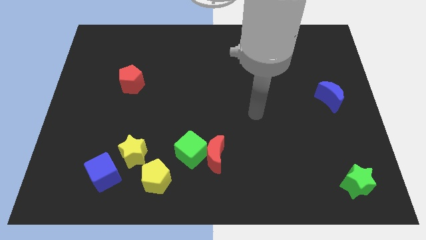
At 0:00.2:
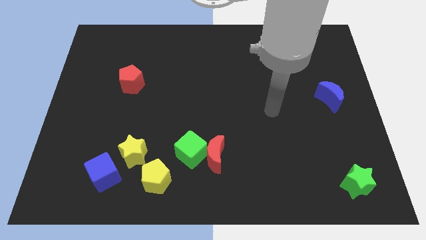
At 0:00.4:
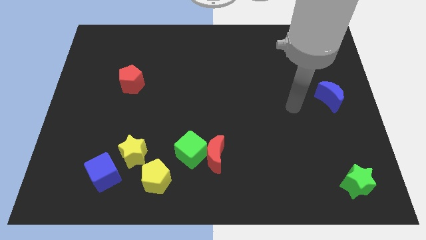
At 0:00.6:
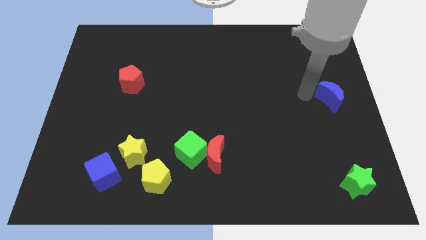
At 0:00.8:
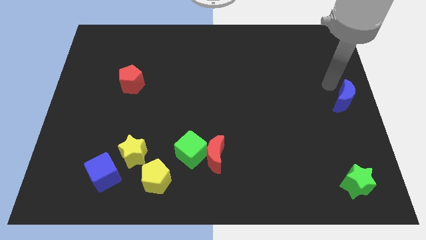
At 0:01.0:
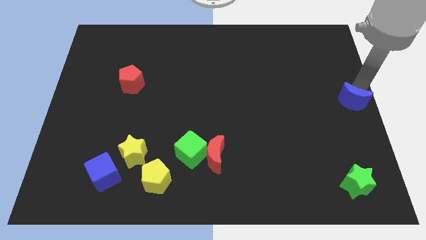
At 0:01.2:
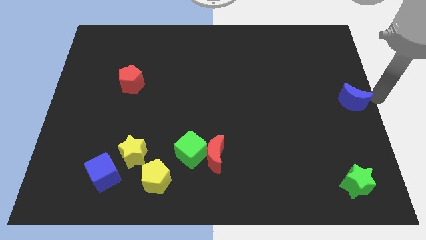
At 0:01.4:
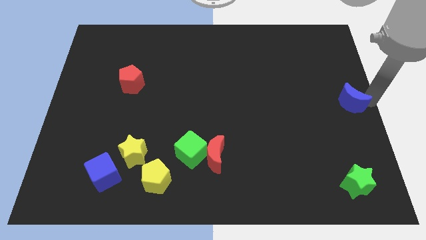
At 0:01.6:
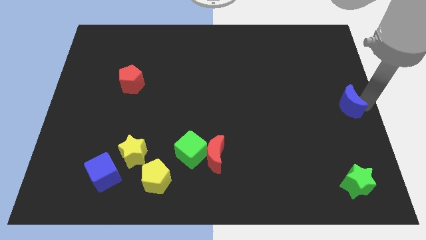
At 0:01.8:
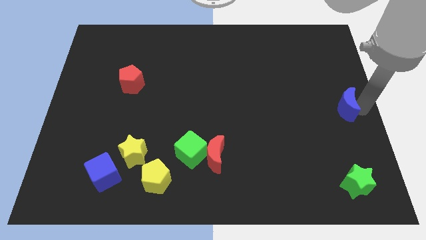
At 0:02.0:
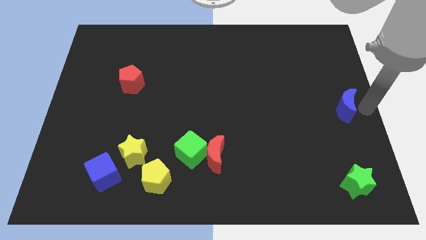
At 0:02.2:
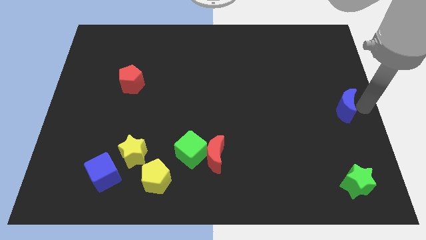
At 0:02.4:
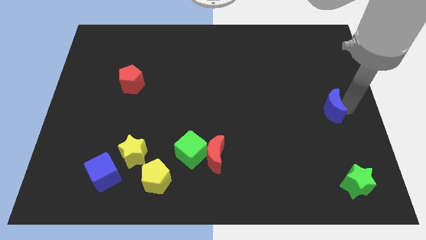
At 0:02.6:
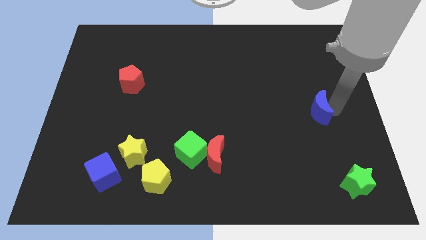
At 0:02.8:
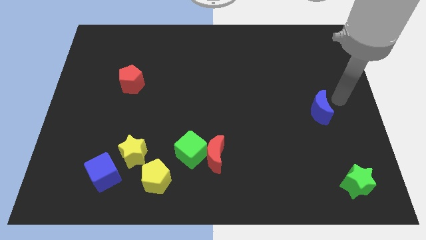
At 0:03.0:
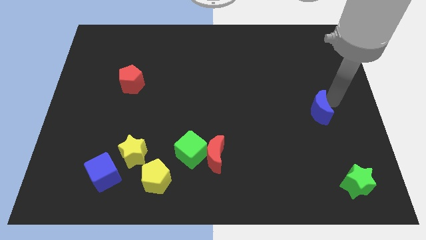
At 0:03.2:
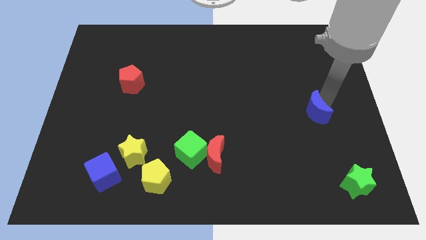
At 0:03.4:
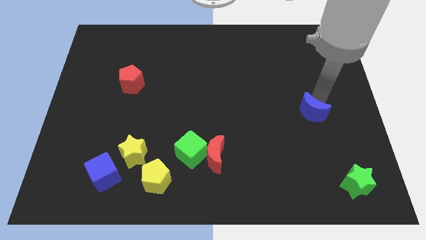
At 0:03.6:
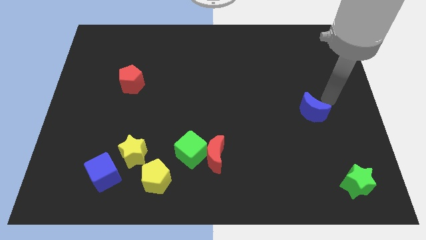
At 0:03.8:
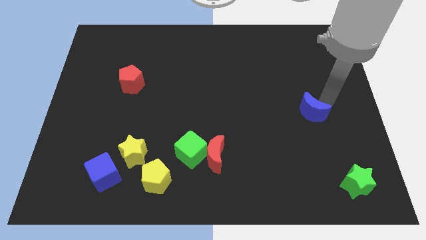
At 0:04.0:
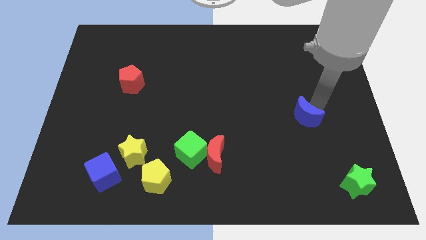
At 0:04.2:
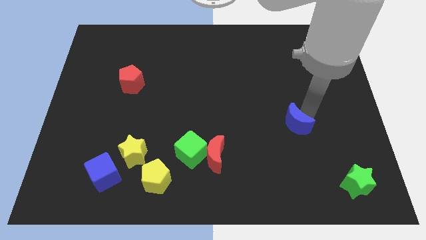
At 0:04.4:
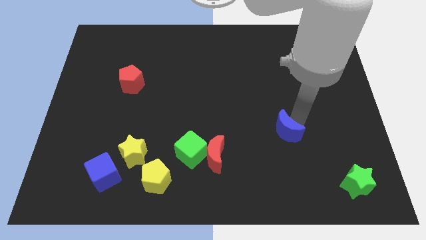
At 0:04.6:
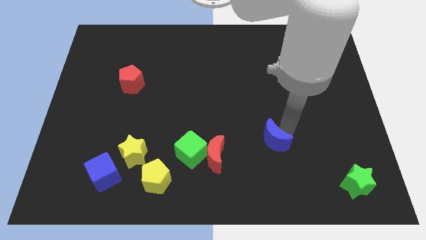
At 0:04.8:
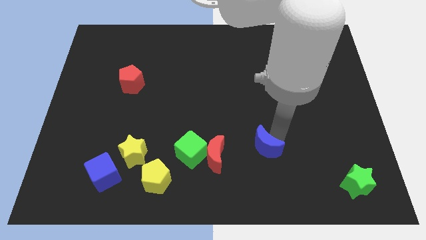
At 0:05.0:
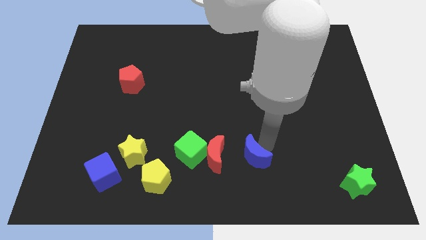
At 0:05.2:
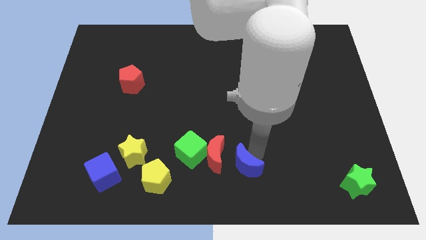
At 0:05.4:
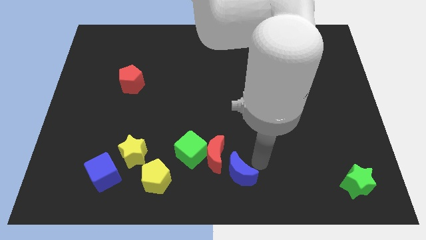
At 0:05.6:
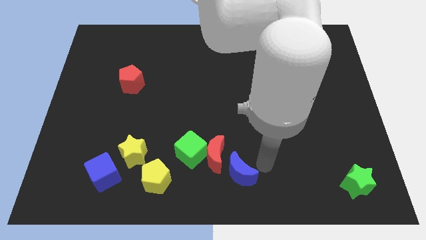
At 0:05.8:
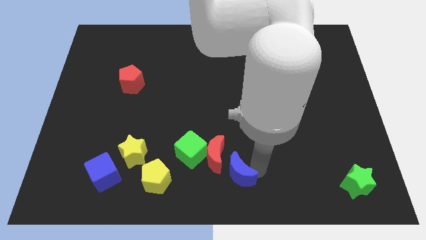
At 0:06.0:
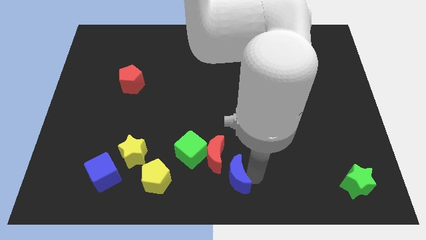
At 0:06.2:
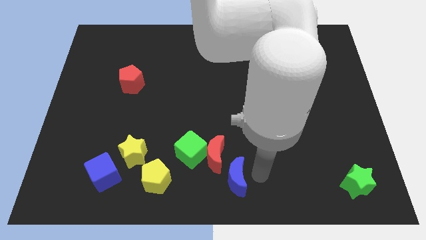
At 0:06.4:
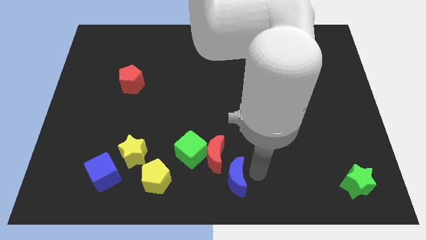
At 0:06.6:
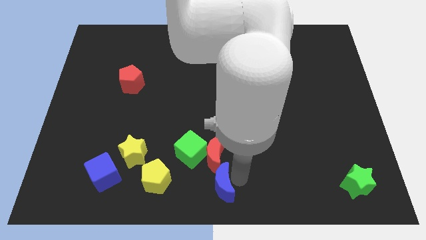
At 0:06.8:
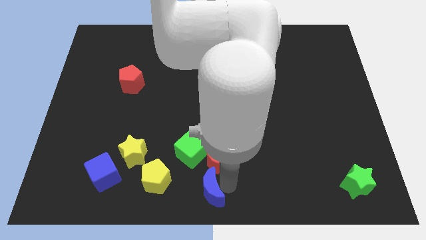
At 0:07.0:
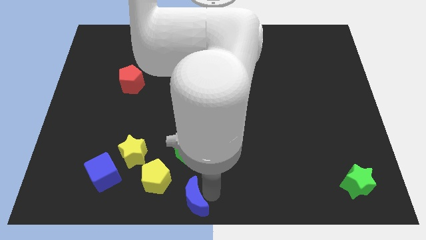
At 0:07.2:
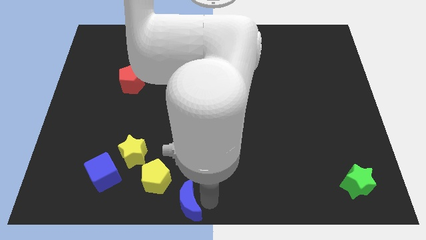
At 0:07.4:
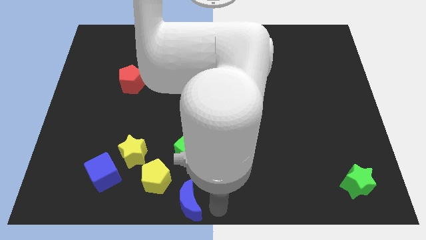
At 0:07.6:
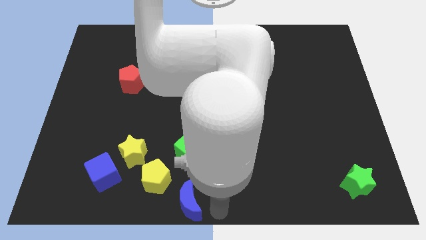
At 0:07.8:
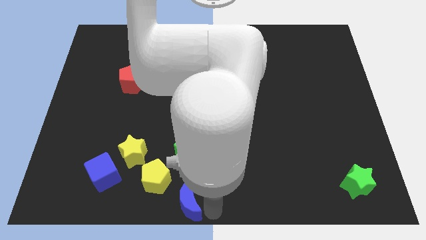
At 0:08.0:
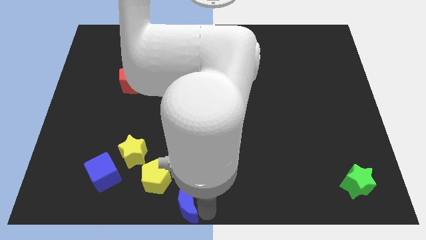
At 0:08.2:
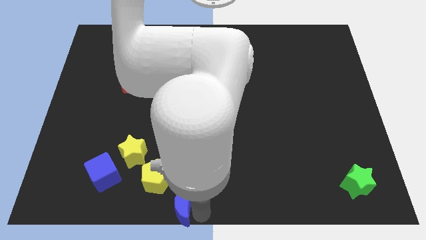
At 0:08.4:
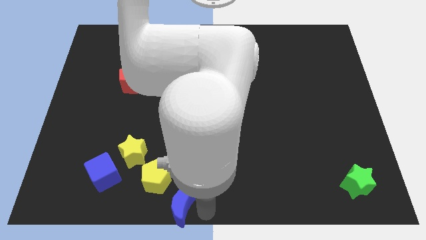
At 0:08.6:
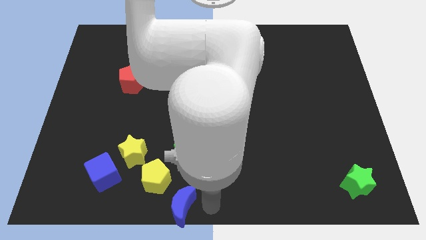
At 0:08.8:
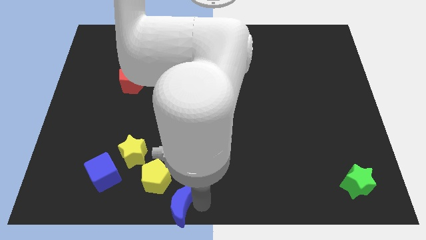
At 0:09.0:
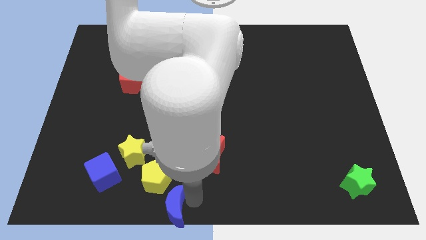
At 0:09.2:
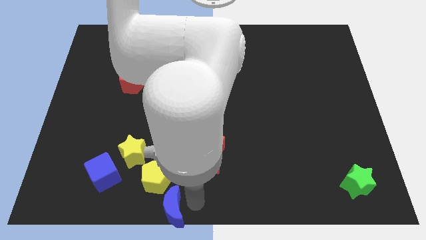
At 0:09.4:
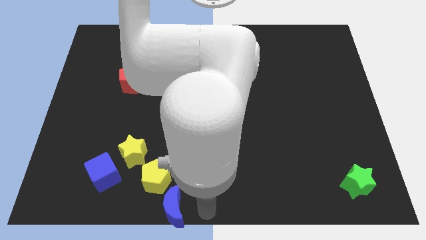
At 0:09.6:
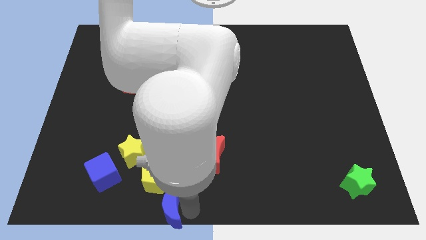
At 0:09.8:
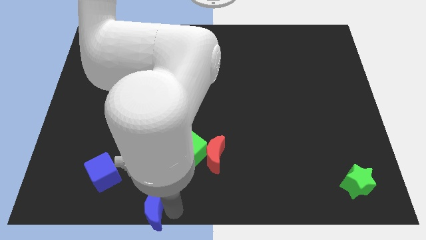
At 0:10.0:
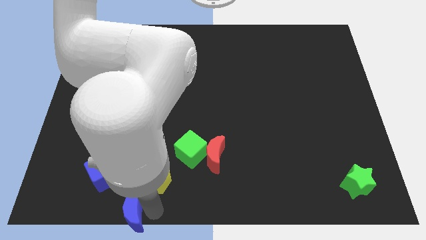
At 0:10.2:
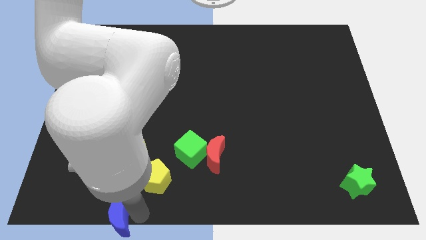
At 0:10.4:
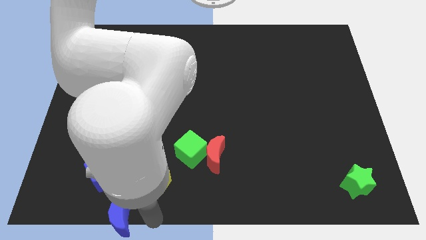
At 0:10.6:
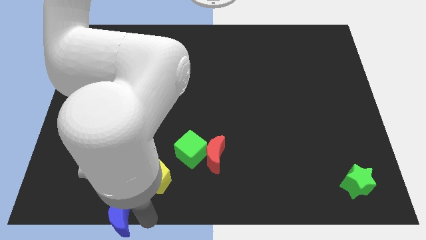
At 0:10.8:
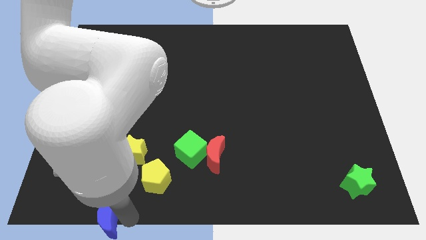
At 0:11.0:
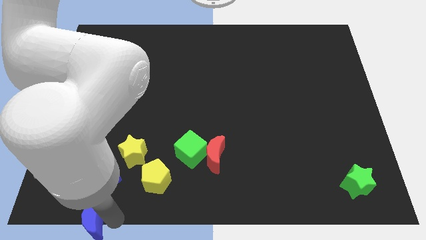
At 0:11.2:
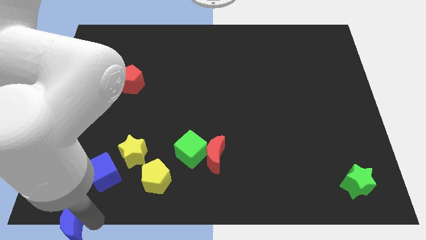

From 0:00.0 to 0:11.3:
put the blue moon to the lower left corner
